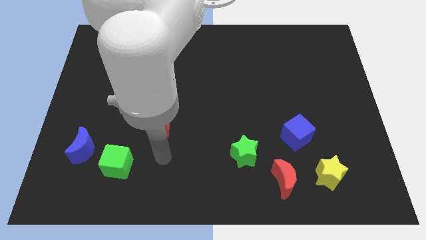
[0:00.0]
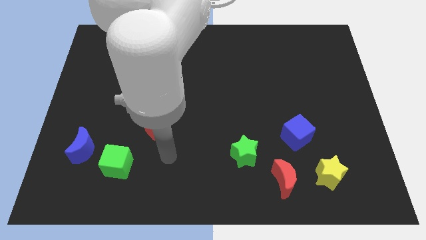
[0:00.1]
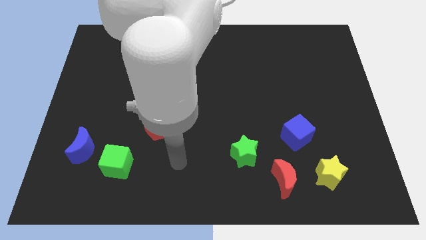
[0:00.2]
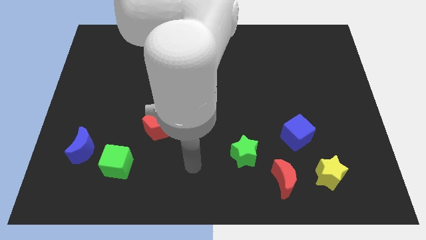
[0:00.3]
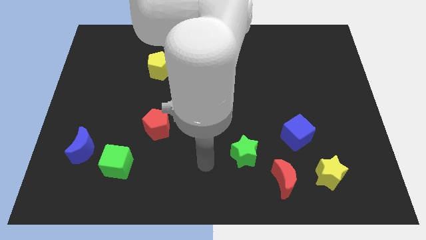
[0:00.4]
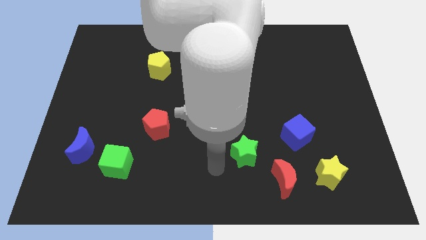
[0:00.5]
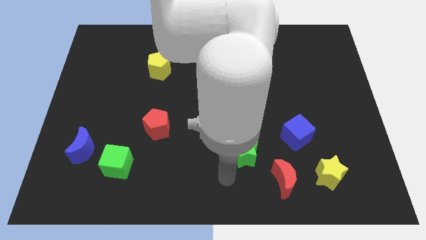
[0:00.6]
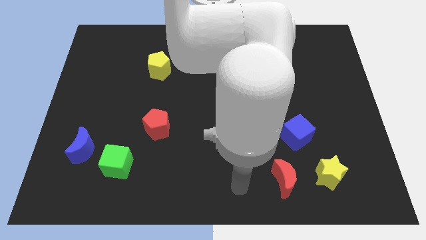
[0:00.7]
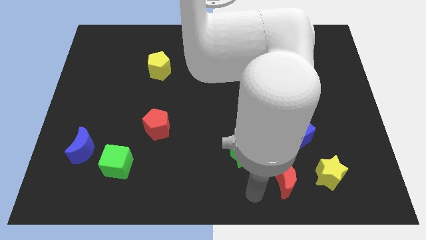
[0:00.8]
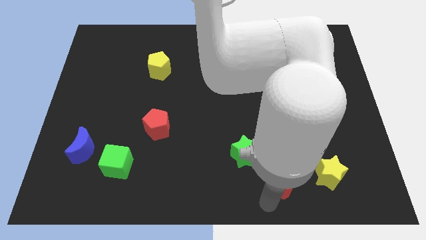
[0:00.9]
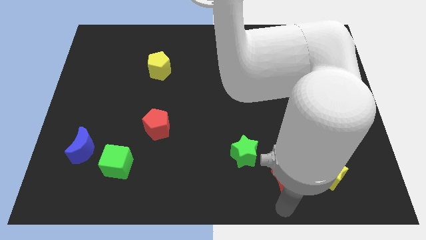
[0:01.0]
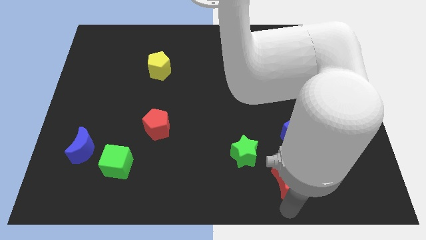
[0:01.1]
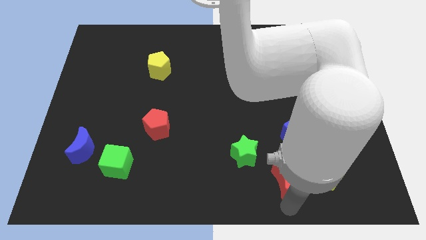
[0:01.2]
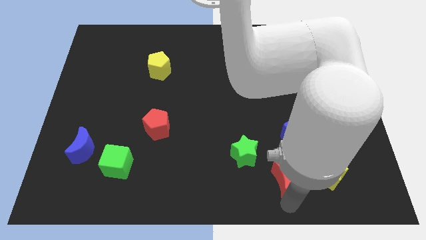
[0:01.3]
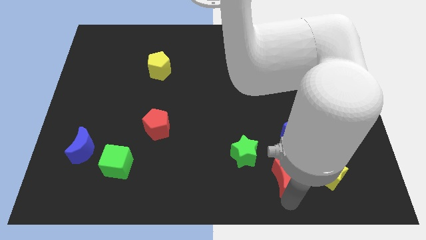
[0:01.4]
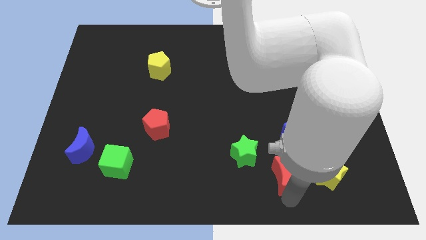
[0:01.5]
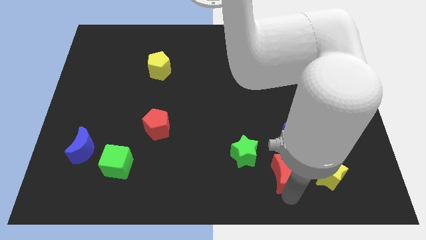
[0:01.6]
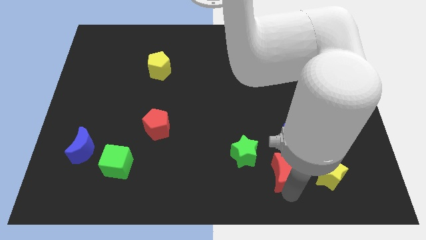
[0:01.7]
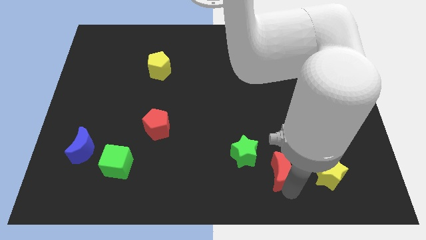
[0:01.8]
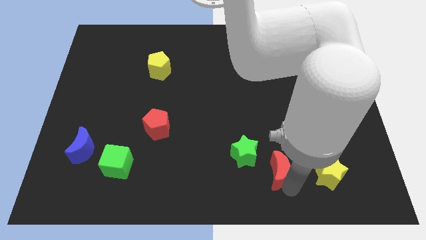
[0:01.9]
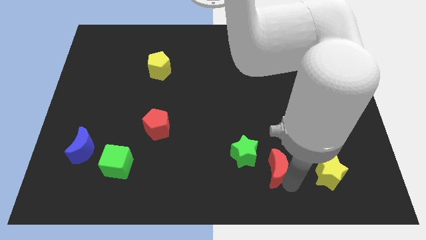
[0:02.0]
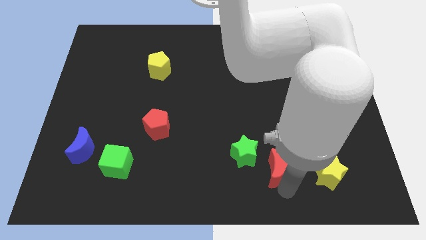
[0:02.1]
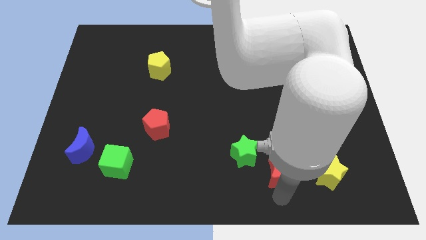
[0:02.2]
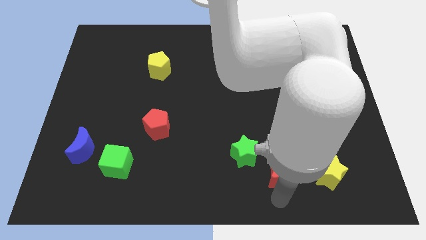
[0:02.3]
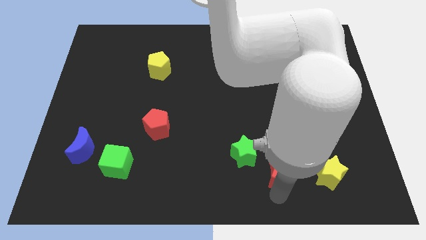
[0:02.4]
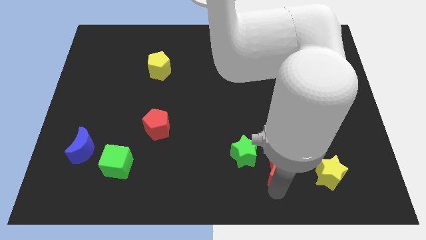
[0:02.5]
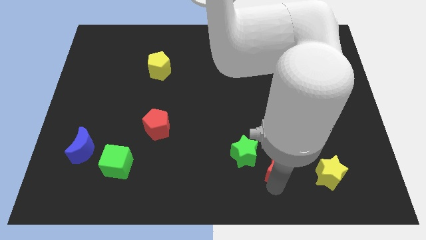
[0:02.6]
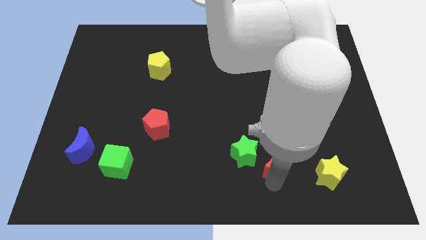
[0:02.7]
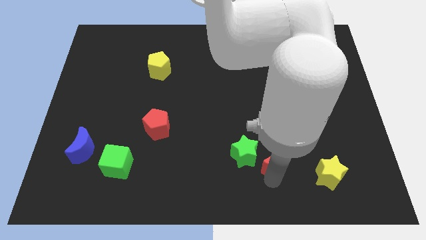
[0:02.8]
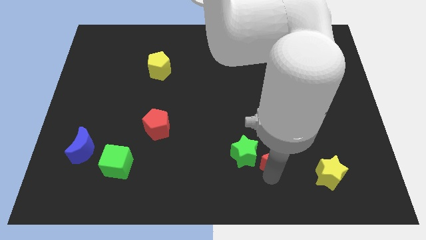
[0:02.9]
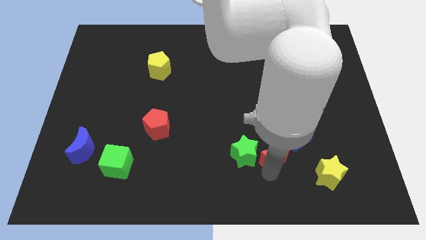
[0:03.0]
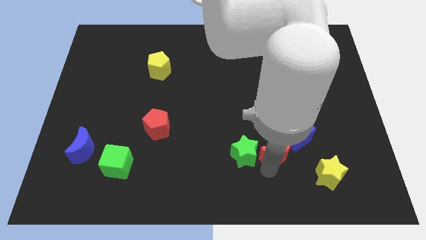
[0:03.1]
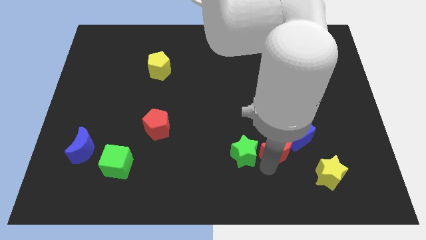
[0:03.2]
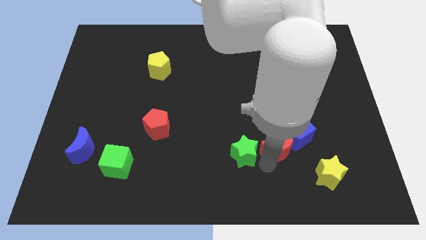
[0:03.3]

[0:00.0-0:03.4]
push the red moon upwards slightly

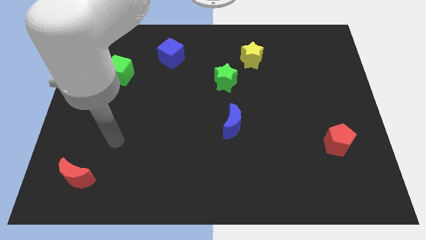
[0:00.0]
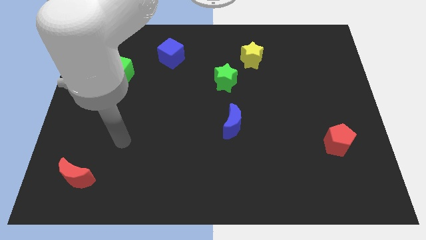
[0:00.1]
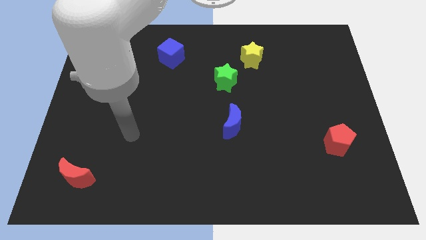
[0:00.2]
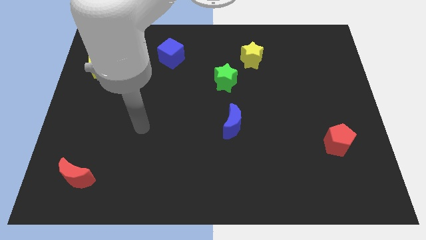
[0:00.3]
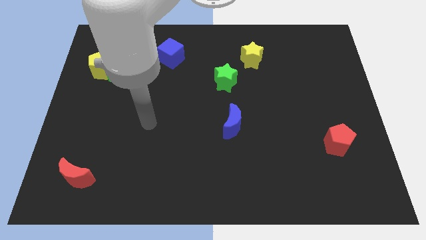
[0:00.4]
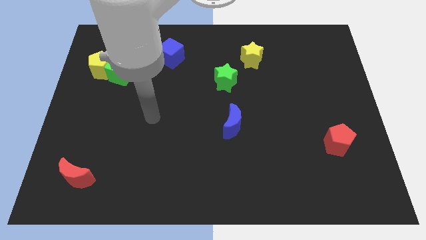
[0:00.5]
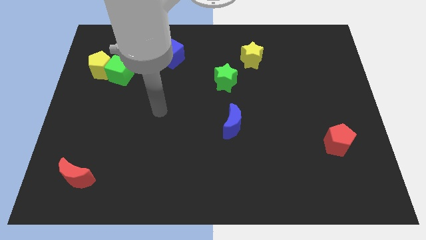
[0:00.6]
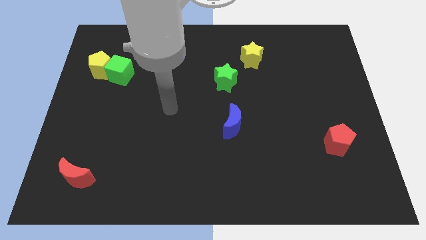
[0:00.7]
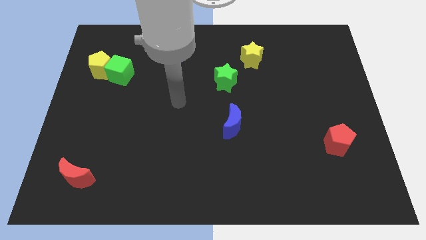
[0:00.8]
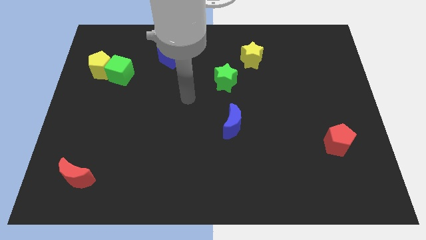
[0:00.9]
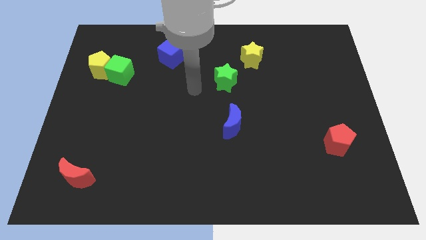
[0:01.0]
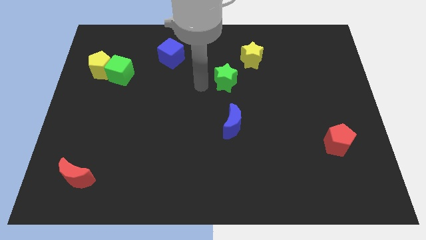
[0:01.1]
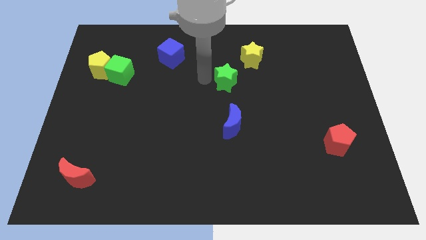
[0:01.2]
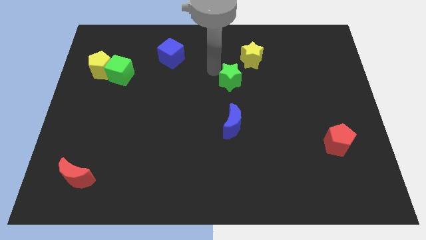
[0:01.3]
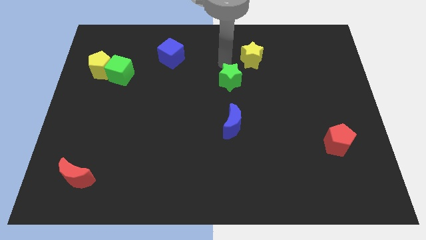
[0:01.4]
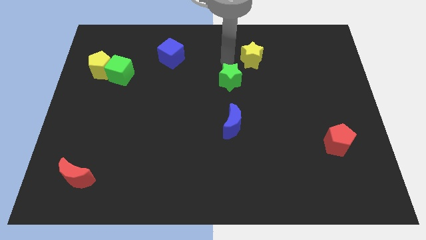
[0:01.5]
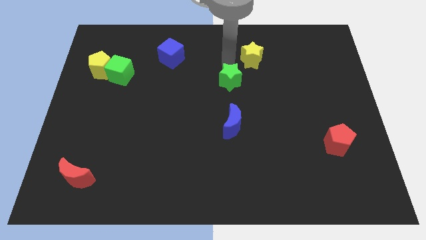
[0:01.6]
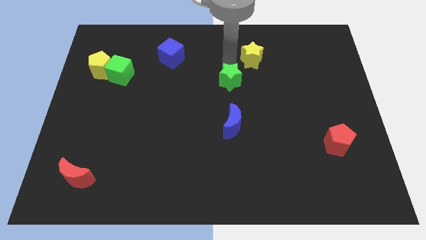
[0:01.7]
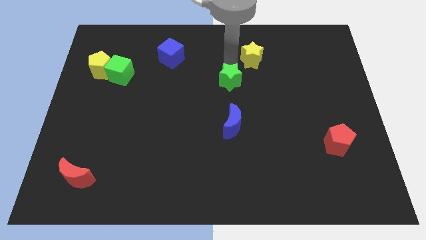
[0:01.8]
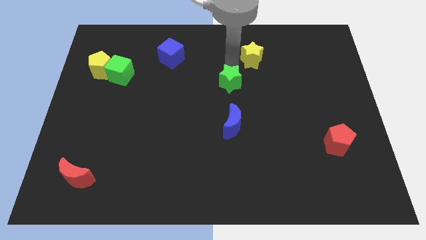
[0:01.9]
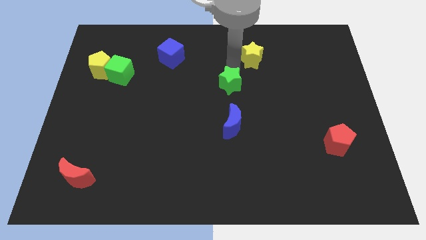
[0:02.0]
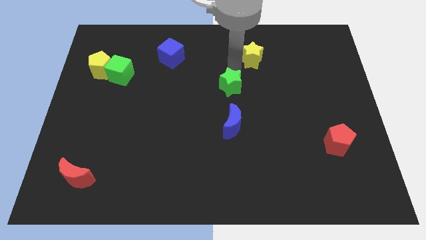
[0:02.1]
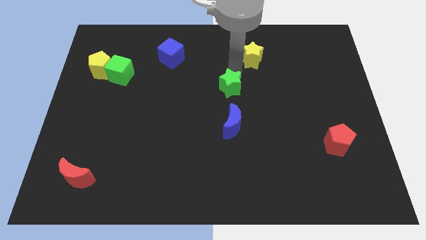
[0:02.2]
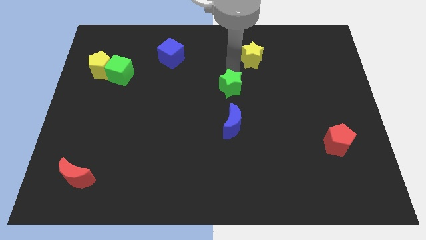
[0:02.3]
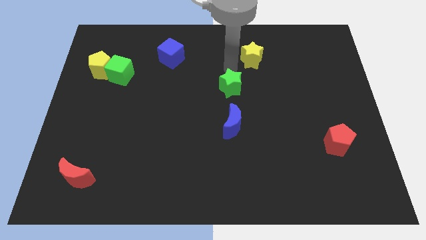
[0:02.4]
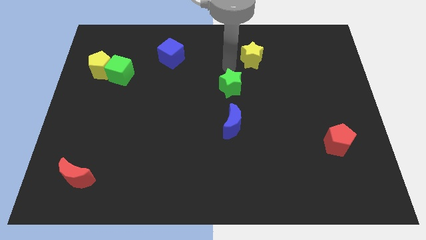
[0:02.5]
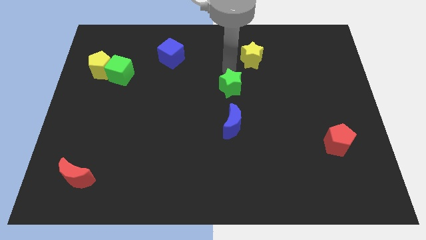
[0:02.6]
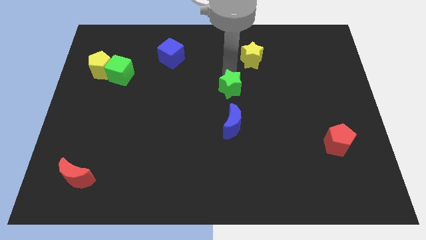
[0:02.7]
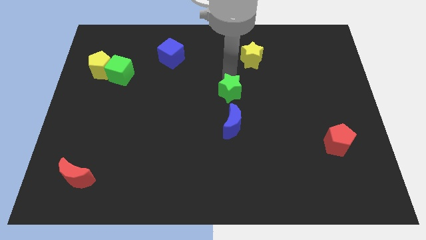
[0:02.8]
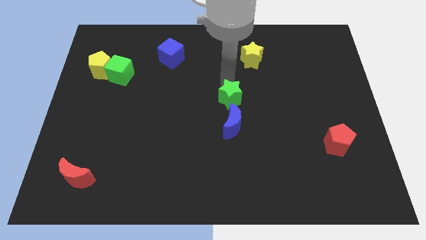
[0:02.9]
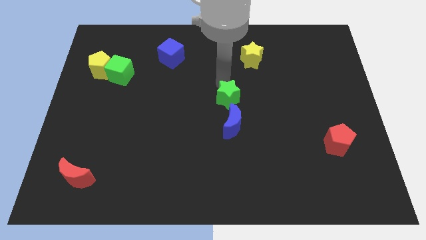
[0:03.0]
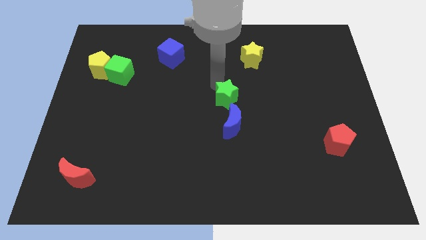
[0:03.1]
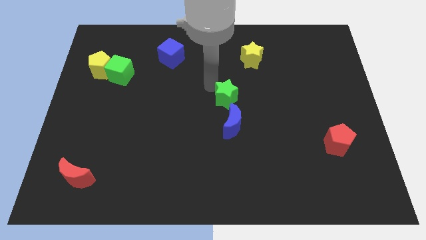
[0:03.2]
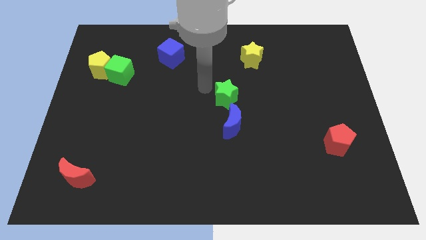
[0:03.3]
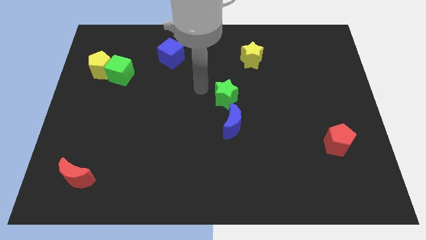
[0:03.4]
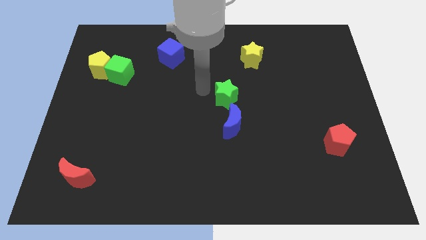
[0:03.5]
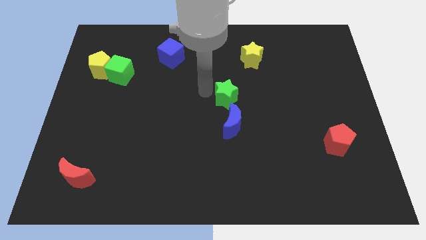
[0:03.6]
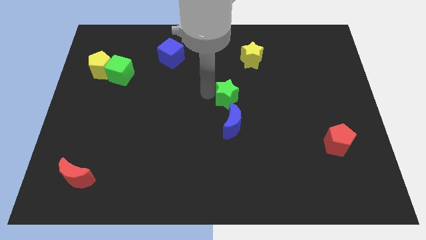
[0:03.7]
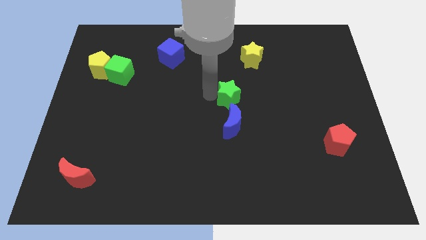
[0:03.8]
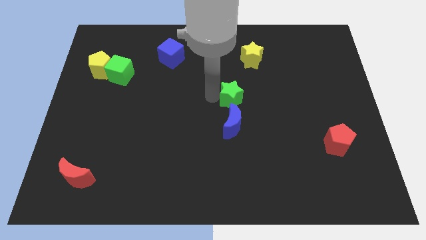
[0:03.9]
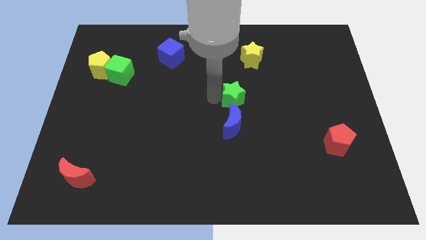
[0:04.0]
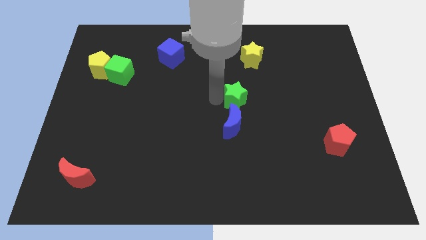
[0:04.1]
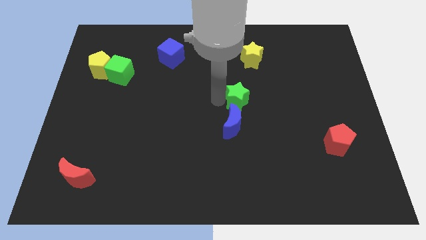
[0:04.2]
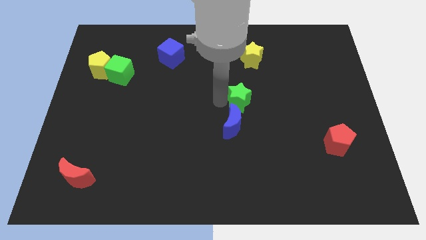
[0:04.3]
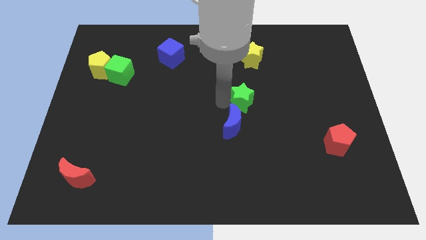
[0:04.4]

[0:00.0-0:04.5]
push the green star somewhat down and to the right

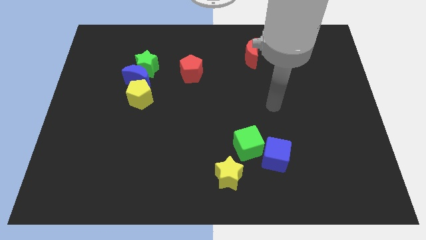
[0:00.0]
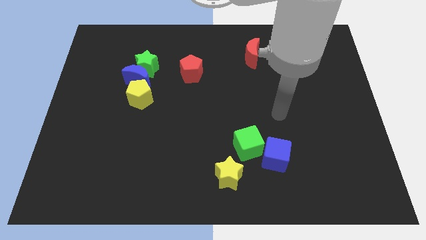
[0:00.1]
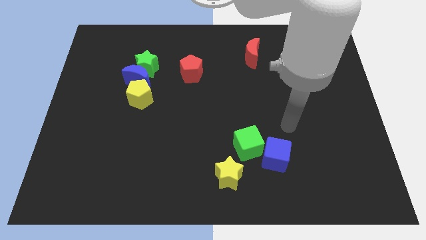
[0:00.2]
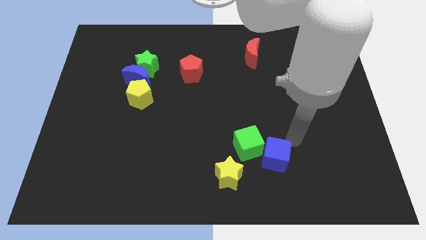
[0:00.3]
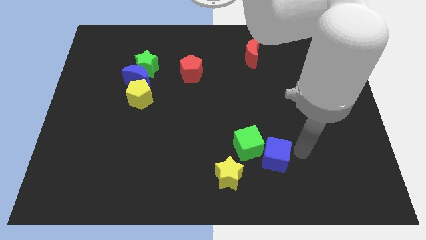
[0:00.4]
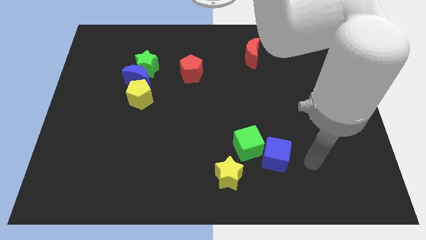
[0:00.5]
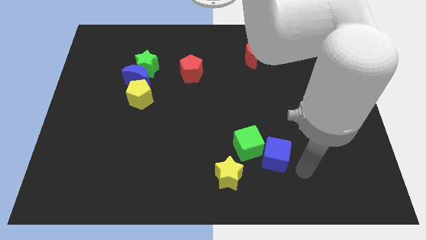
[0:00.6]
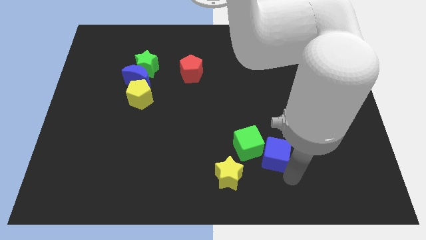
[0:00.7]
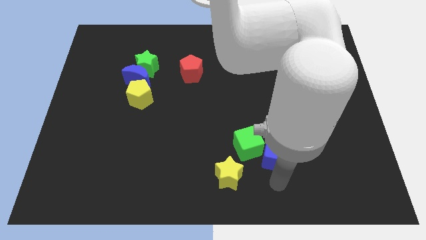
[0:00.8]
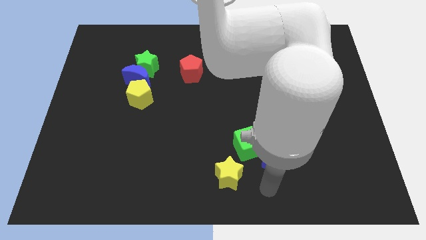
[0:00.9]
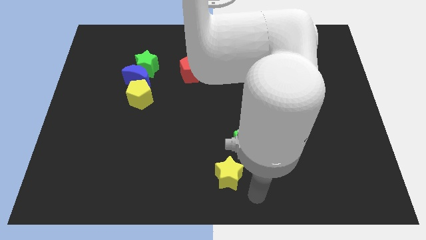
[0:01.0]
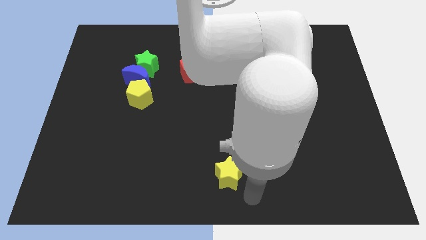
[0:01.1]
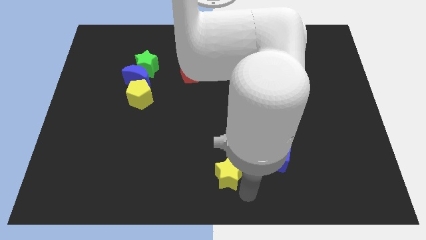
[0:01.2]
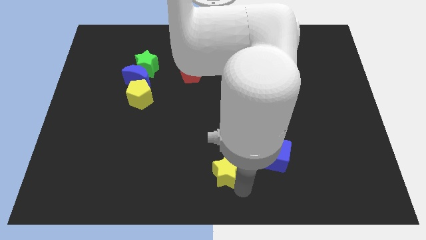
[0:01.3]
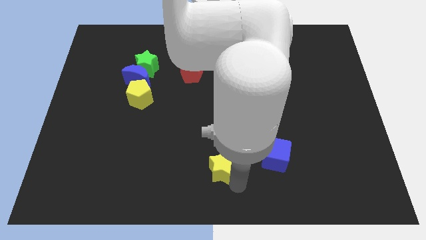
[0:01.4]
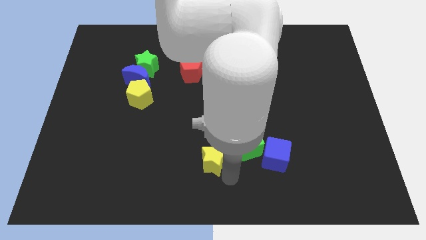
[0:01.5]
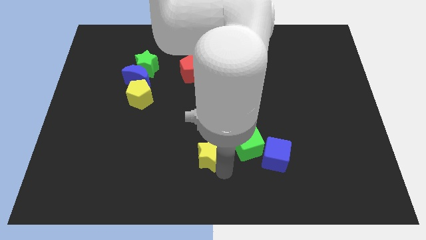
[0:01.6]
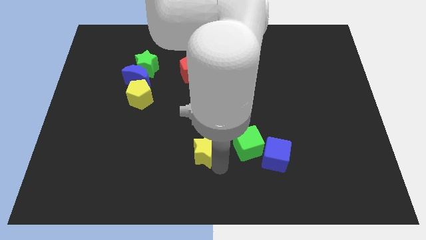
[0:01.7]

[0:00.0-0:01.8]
push the yellow star a little upwards and left diagonally
